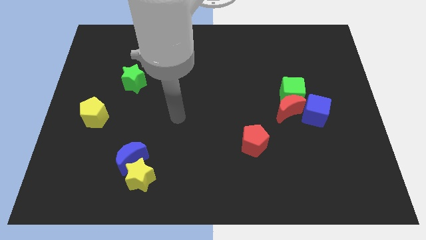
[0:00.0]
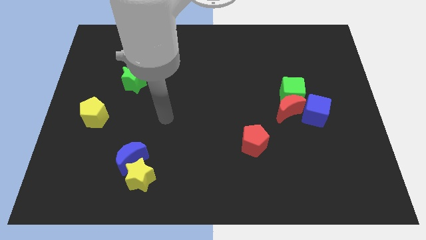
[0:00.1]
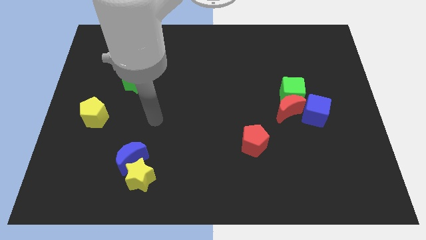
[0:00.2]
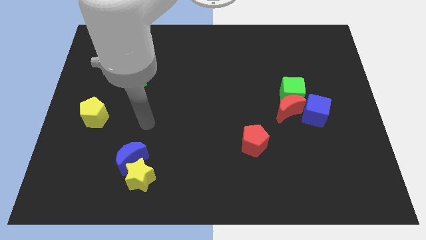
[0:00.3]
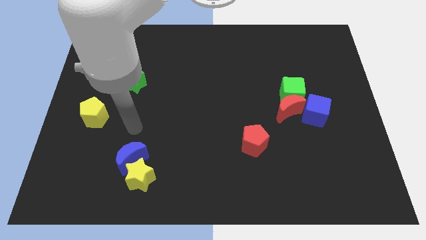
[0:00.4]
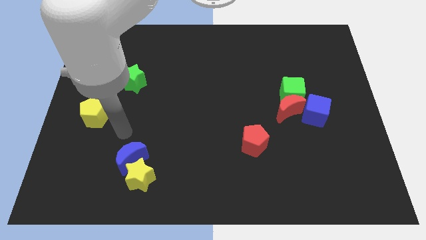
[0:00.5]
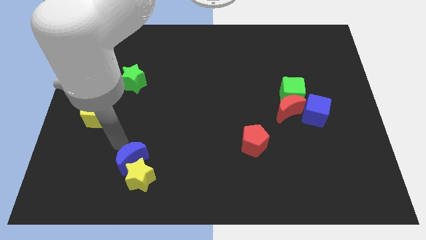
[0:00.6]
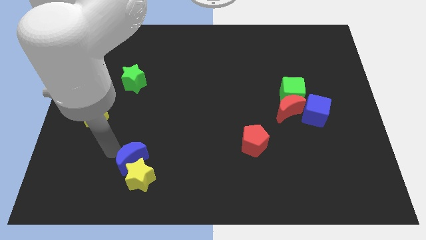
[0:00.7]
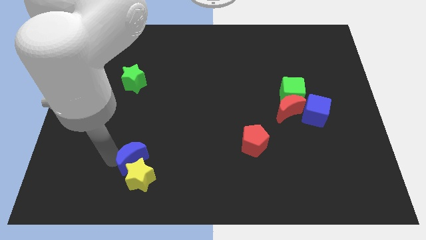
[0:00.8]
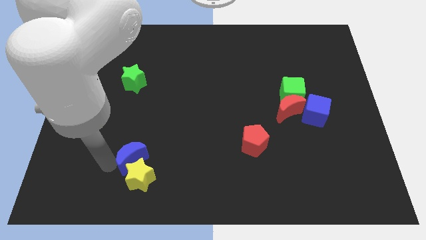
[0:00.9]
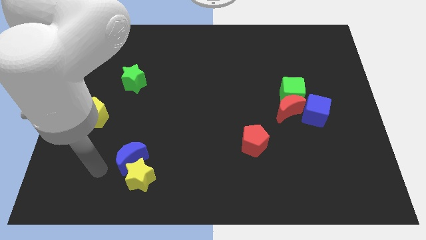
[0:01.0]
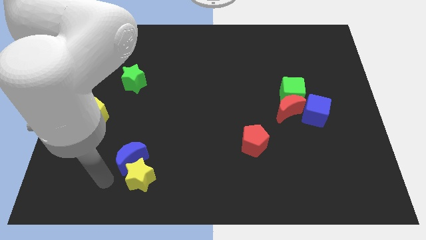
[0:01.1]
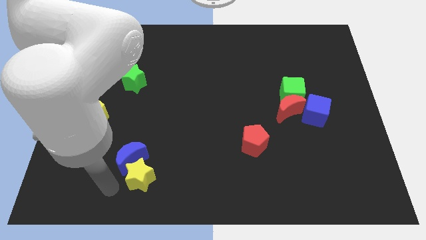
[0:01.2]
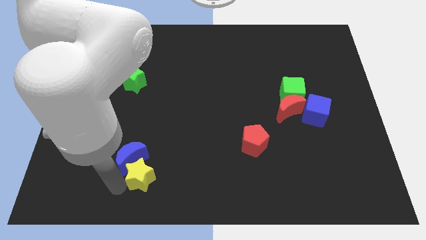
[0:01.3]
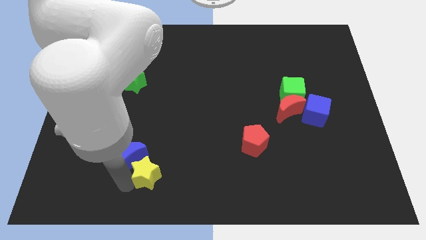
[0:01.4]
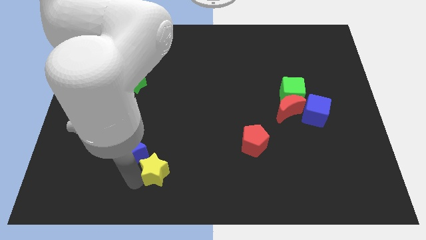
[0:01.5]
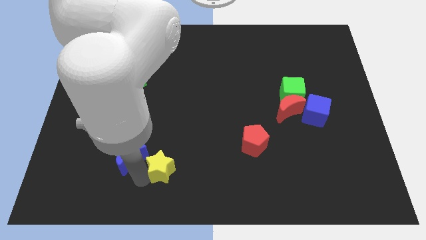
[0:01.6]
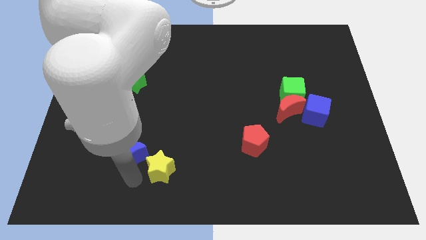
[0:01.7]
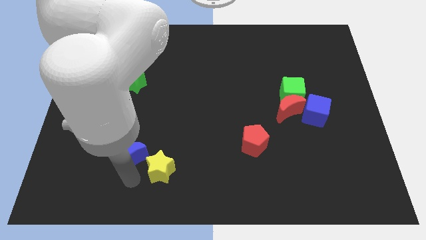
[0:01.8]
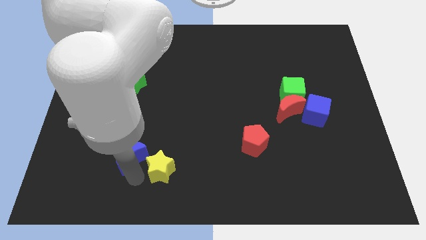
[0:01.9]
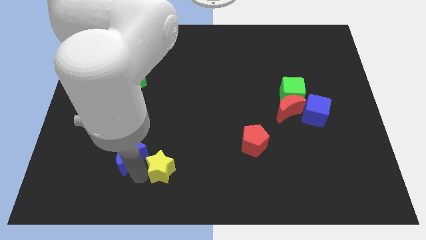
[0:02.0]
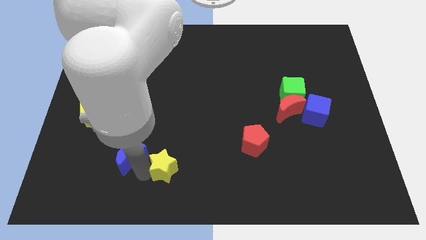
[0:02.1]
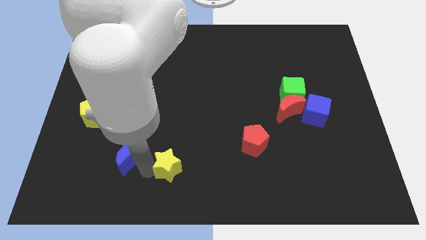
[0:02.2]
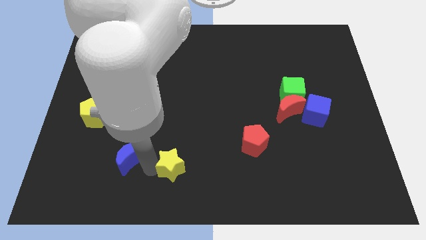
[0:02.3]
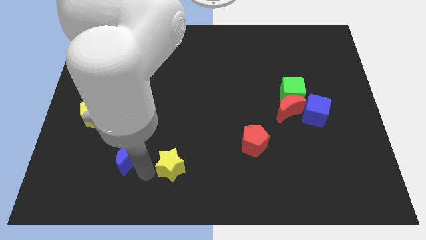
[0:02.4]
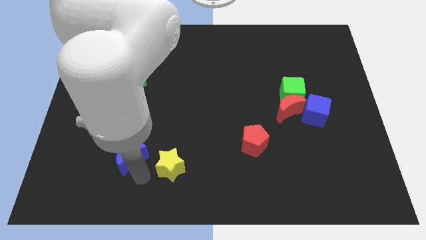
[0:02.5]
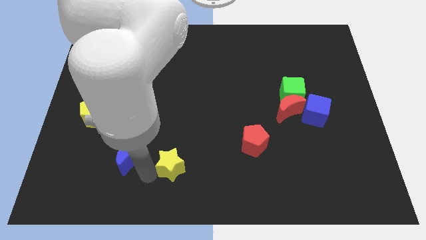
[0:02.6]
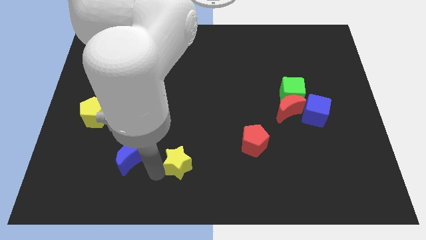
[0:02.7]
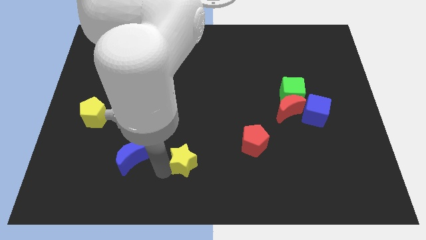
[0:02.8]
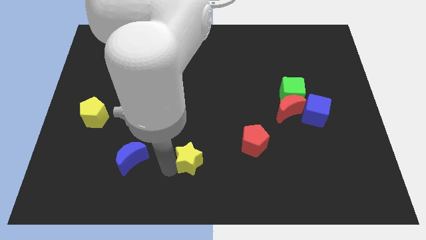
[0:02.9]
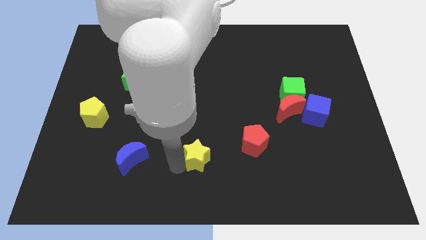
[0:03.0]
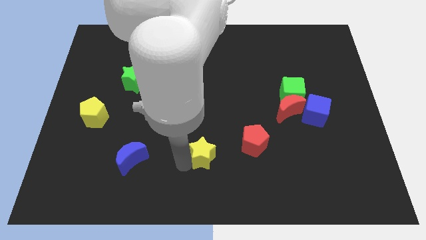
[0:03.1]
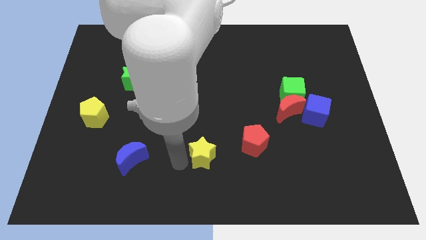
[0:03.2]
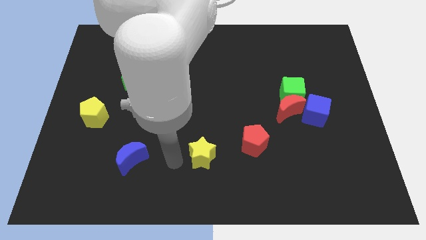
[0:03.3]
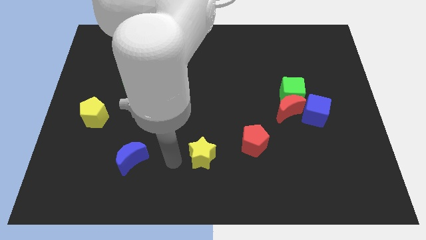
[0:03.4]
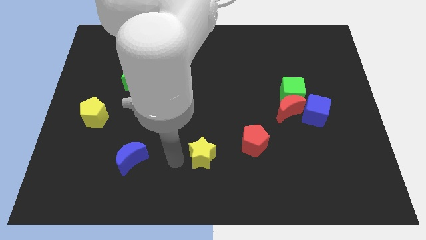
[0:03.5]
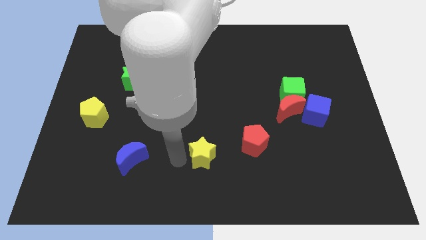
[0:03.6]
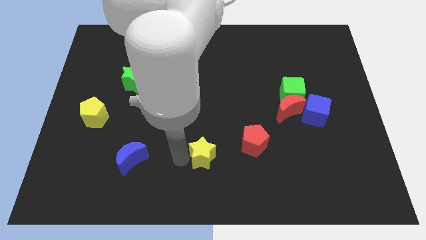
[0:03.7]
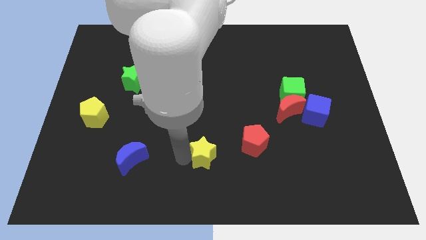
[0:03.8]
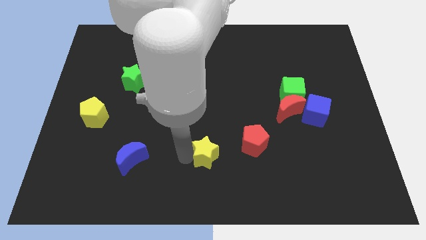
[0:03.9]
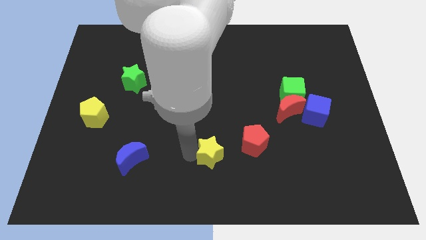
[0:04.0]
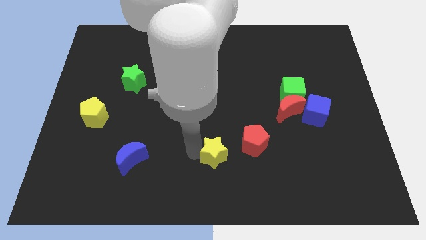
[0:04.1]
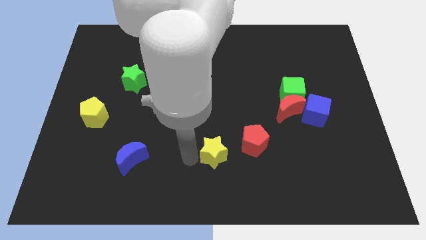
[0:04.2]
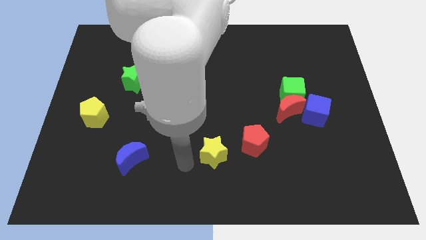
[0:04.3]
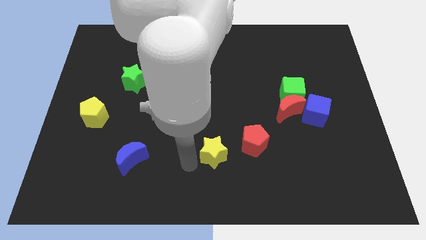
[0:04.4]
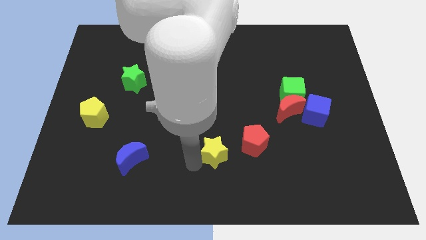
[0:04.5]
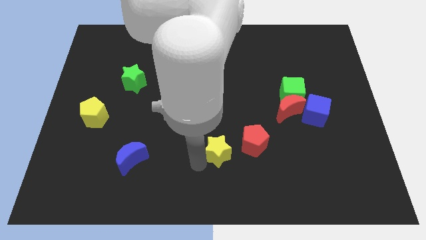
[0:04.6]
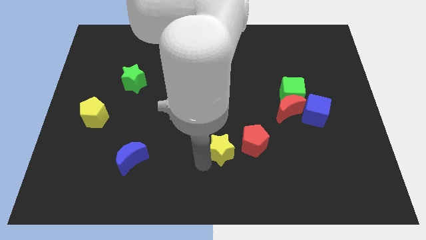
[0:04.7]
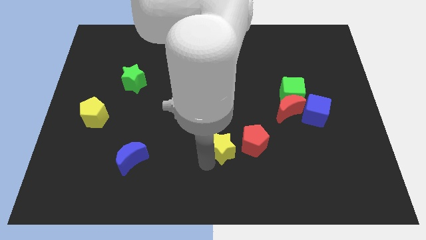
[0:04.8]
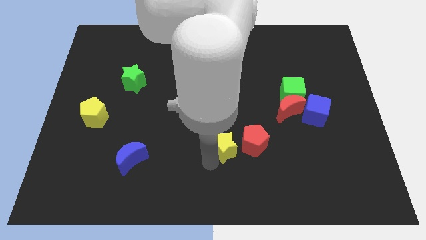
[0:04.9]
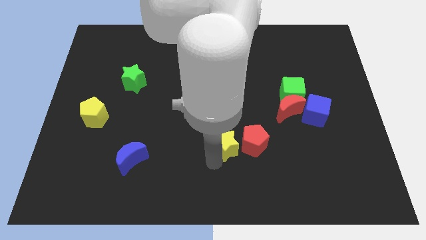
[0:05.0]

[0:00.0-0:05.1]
push the yellow star to the red pentagon

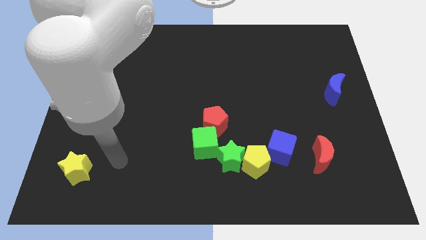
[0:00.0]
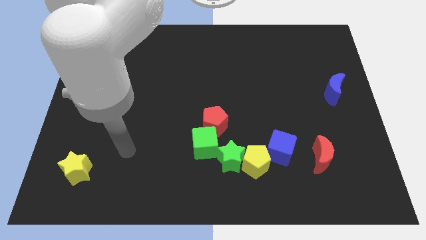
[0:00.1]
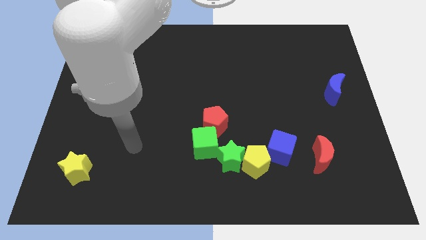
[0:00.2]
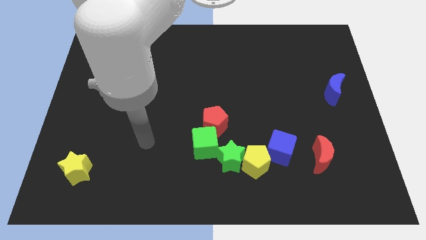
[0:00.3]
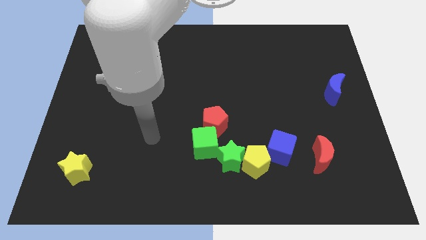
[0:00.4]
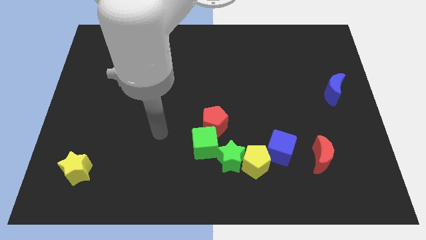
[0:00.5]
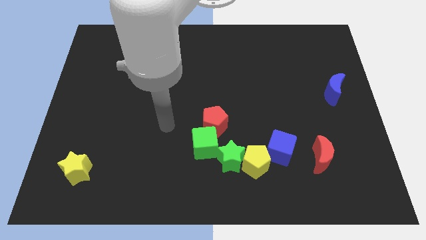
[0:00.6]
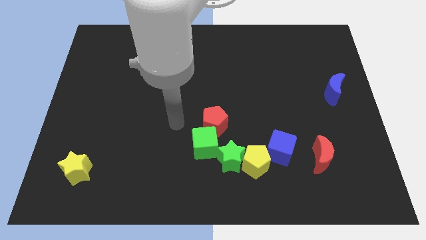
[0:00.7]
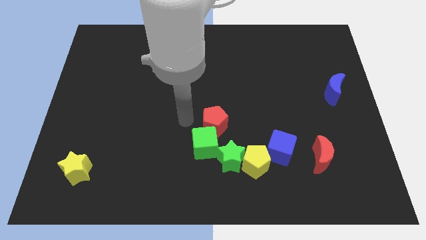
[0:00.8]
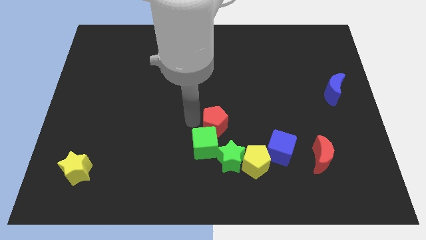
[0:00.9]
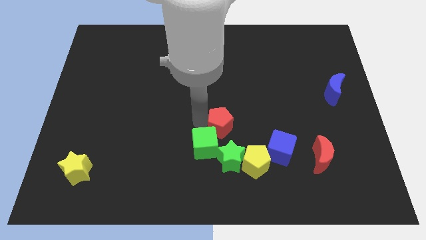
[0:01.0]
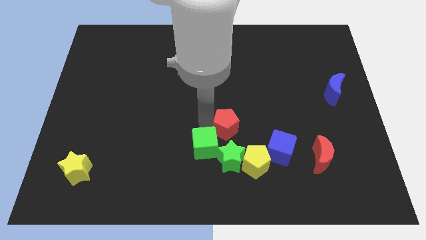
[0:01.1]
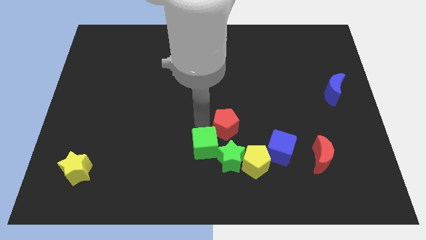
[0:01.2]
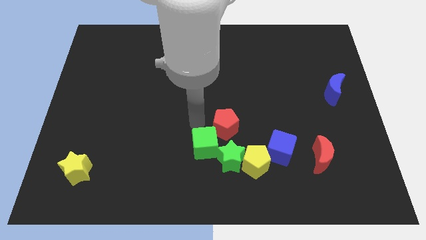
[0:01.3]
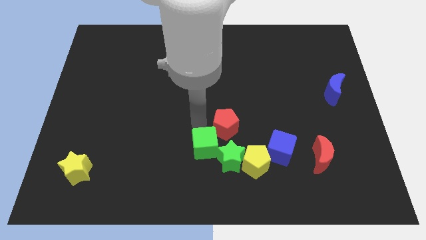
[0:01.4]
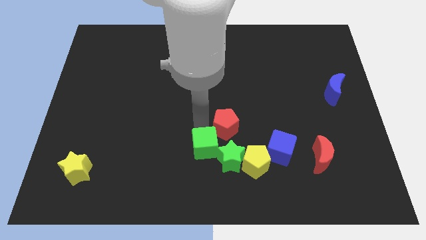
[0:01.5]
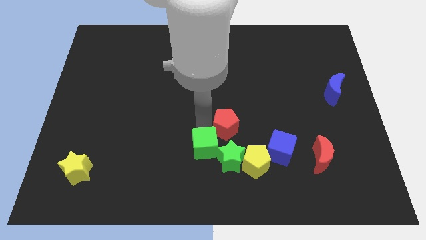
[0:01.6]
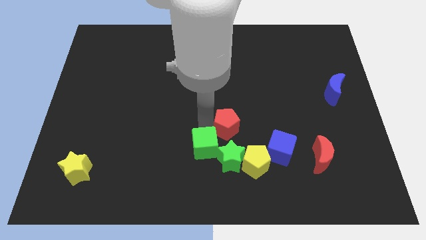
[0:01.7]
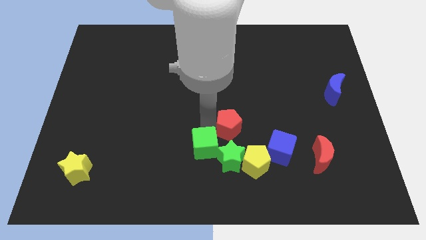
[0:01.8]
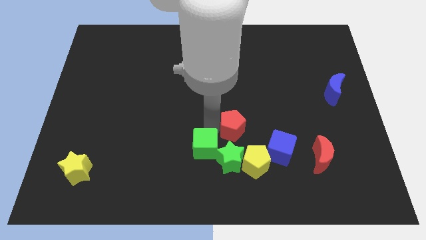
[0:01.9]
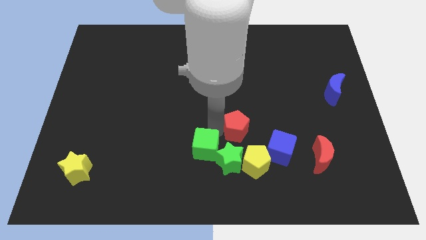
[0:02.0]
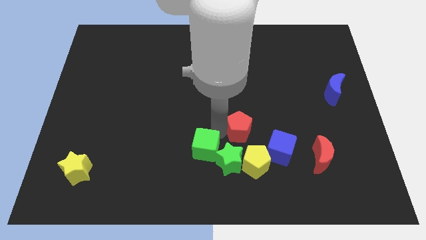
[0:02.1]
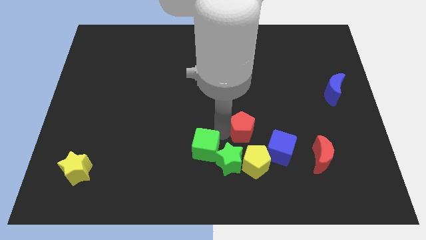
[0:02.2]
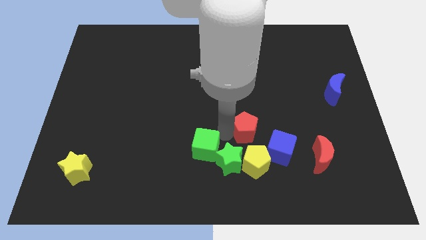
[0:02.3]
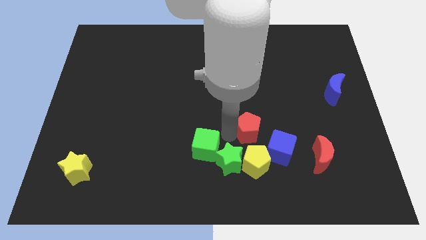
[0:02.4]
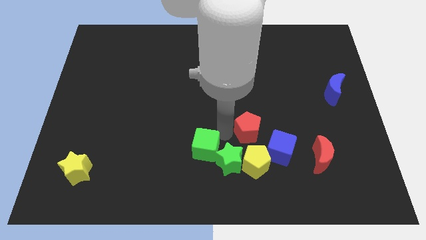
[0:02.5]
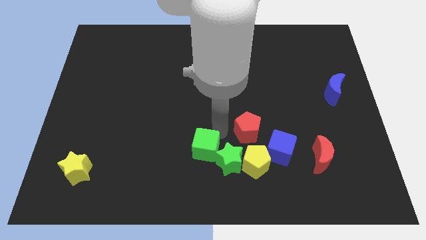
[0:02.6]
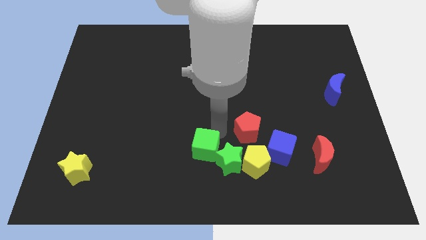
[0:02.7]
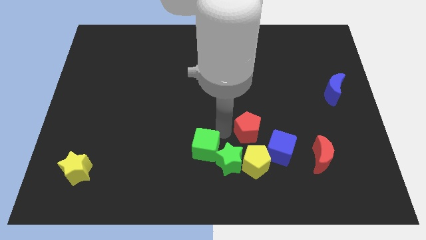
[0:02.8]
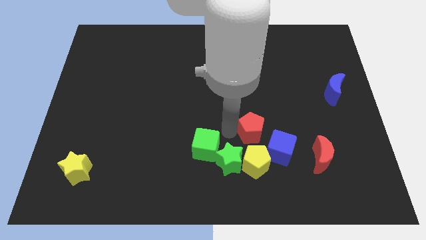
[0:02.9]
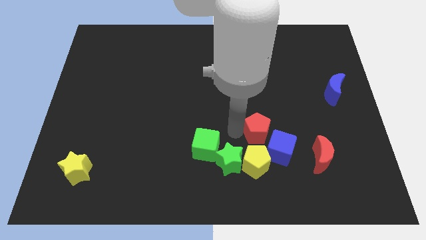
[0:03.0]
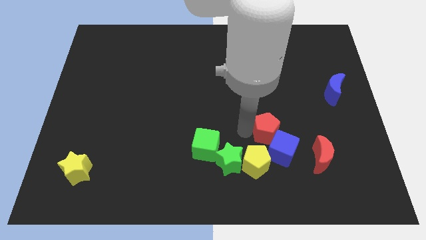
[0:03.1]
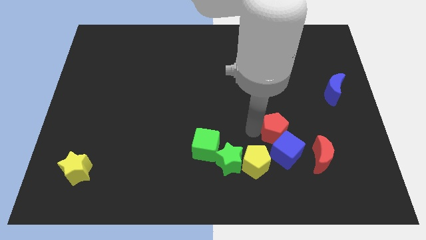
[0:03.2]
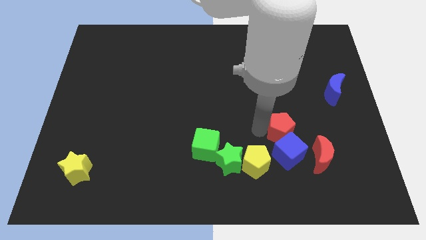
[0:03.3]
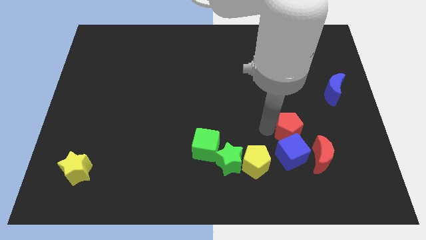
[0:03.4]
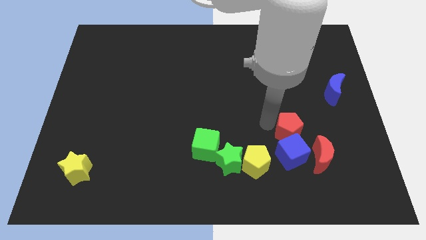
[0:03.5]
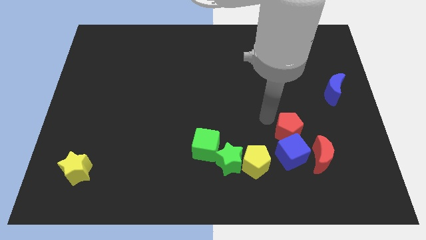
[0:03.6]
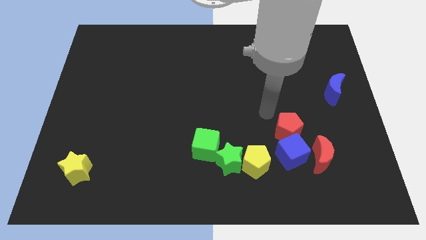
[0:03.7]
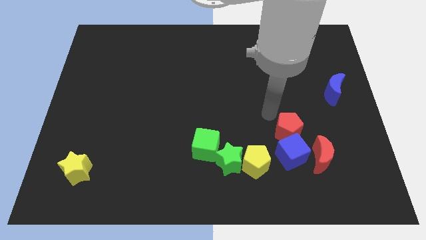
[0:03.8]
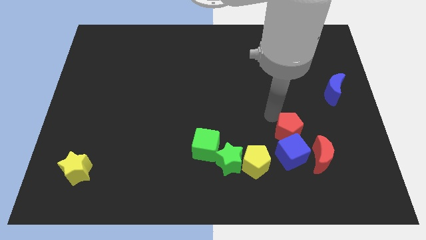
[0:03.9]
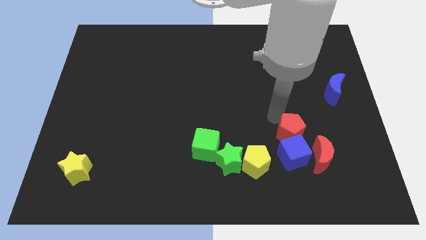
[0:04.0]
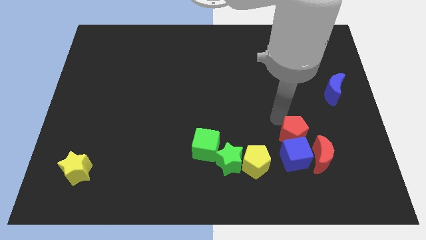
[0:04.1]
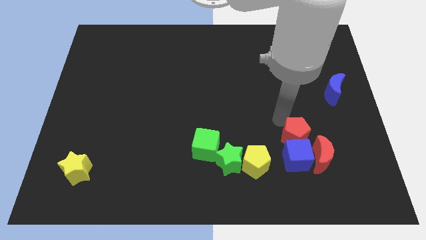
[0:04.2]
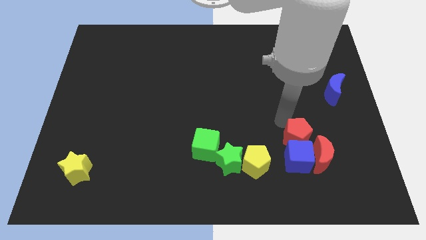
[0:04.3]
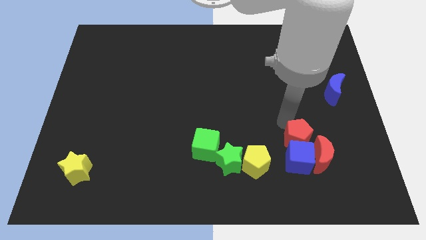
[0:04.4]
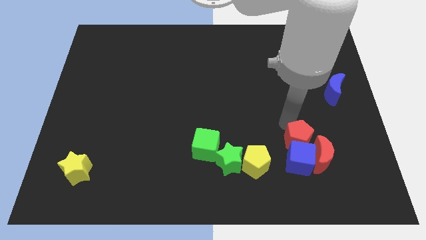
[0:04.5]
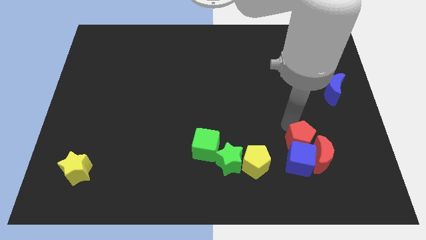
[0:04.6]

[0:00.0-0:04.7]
put the red pentagon close to the red moon
